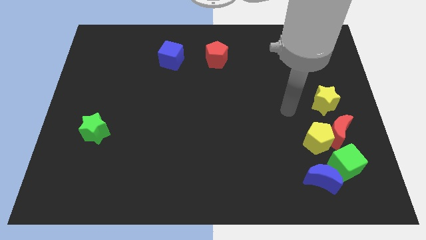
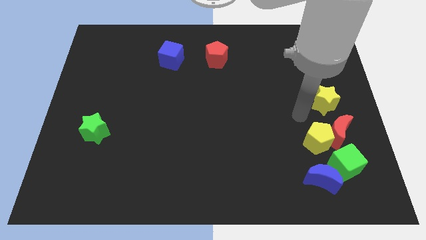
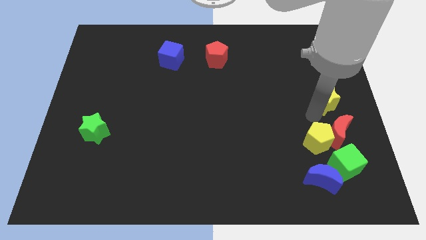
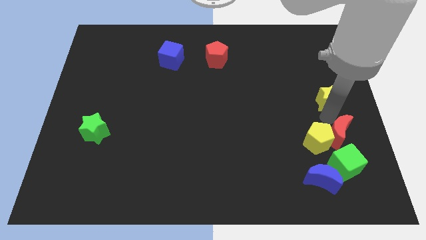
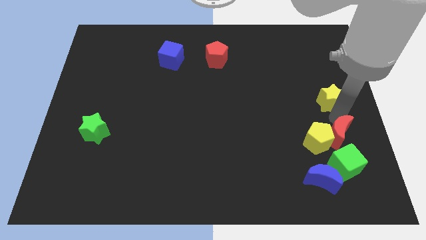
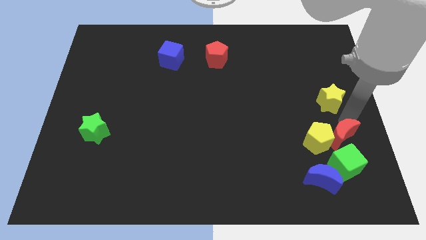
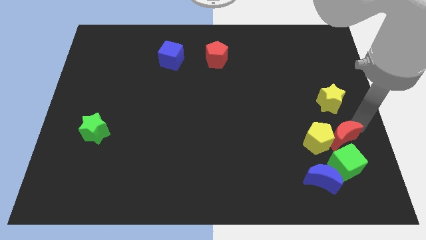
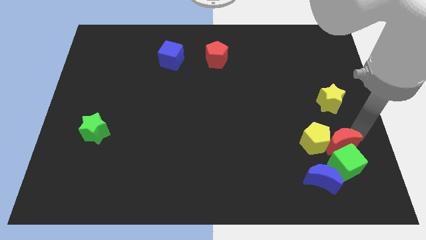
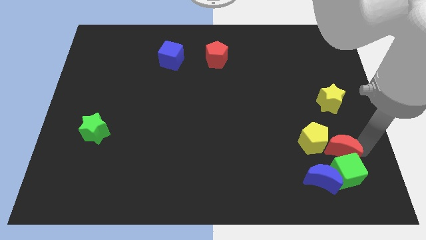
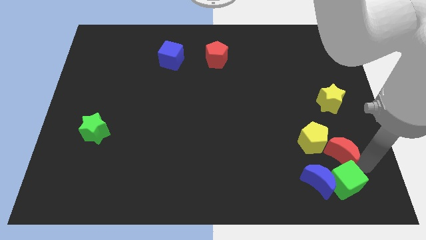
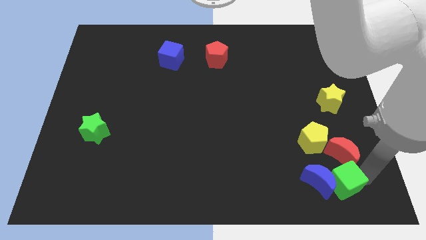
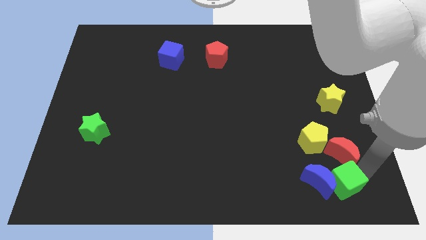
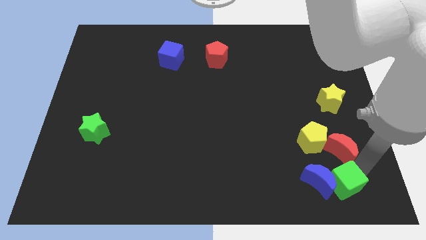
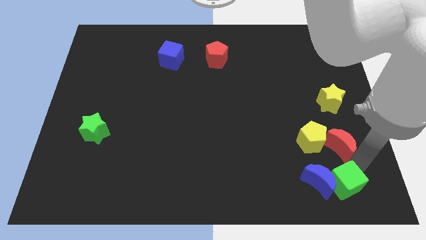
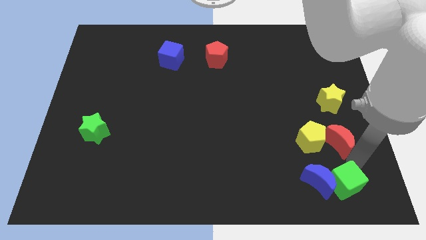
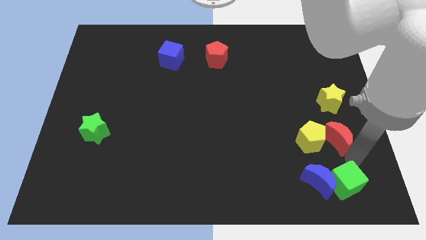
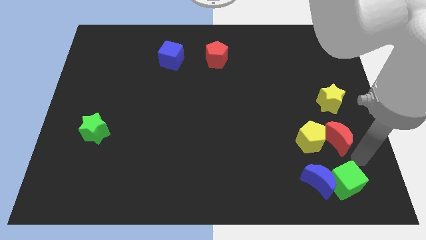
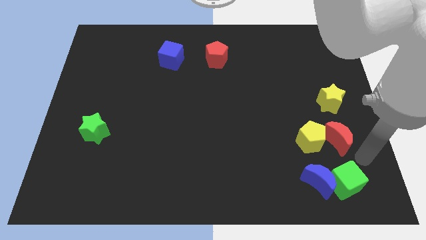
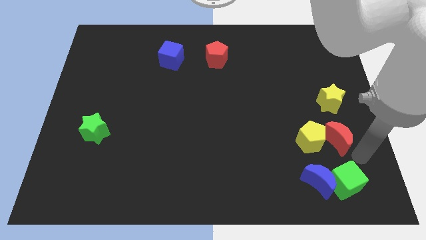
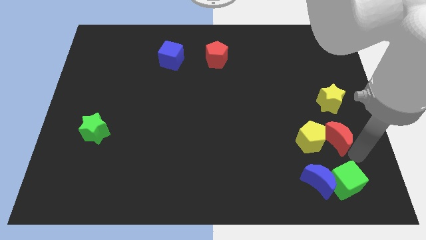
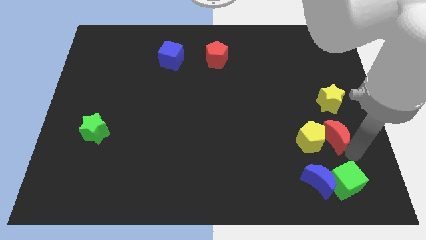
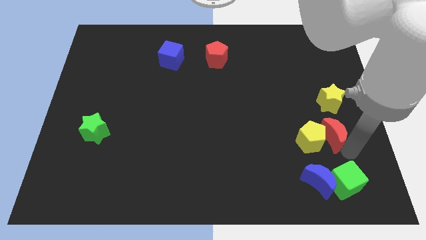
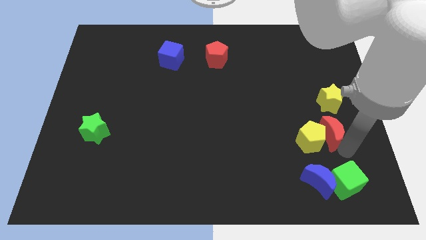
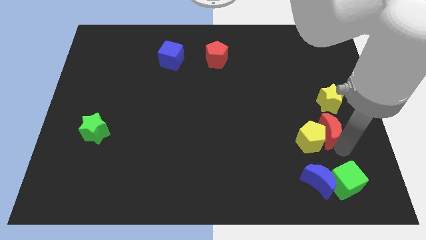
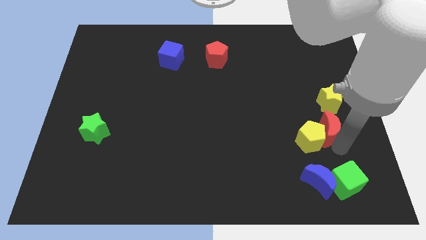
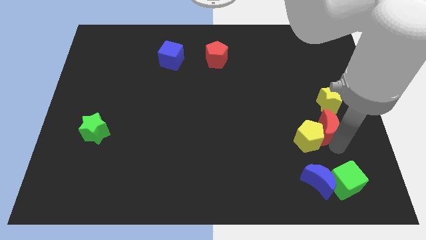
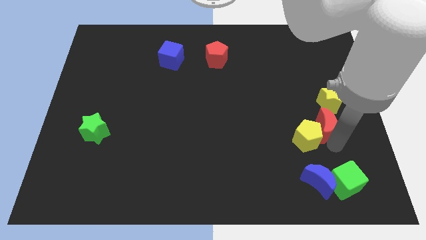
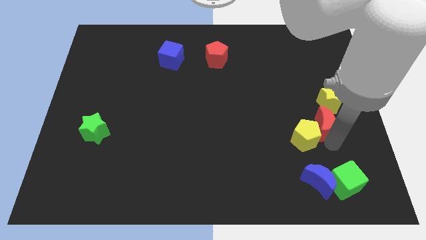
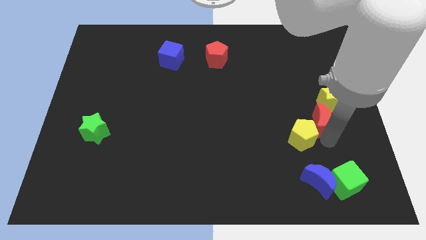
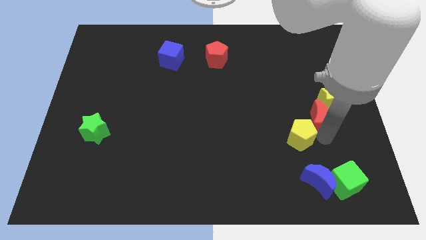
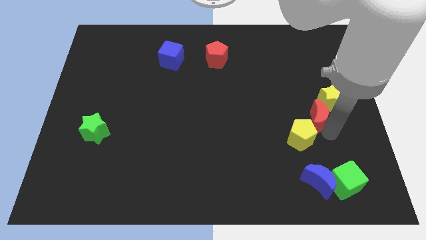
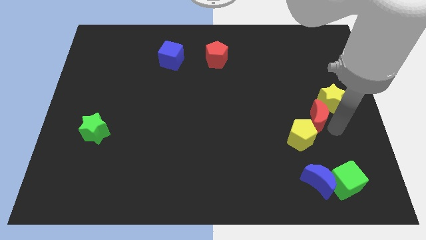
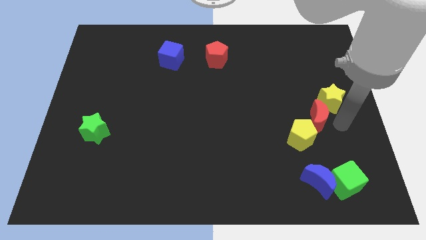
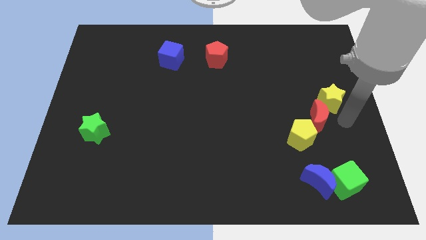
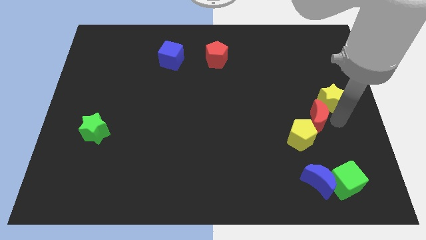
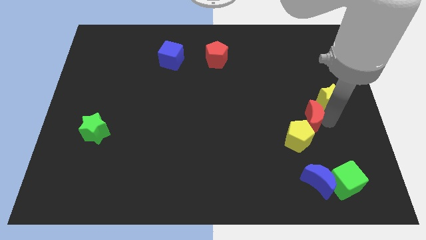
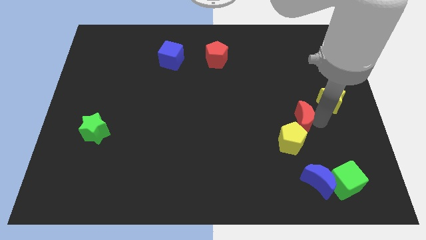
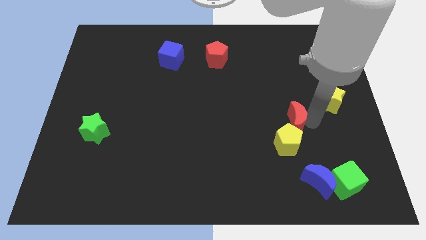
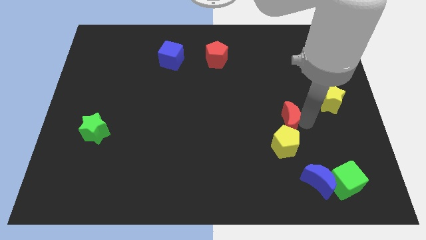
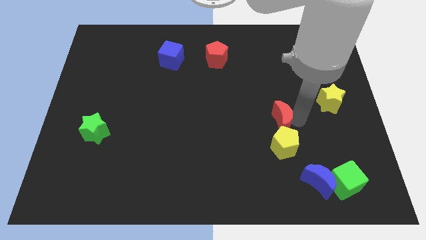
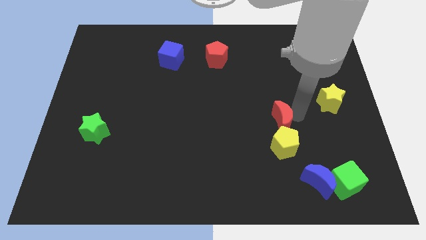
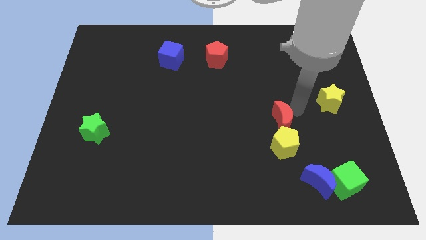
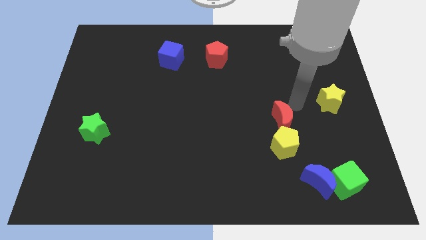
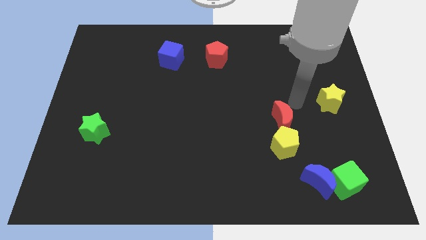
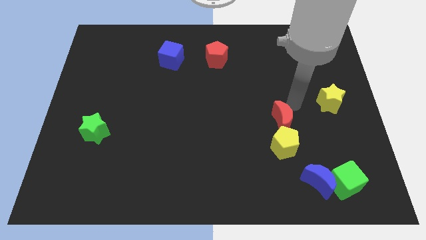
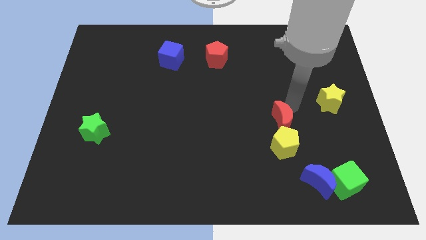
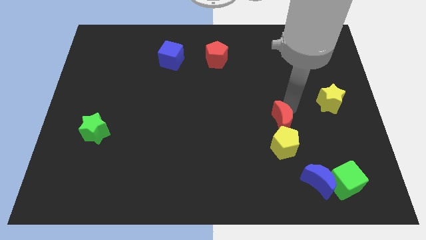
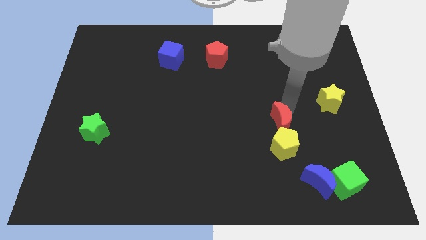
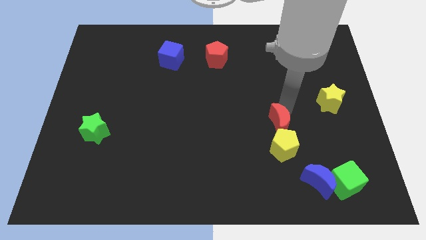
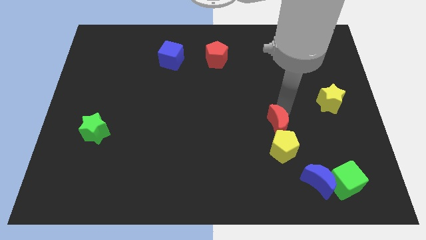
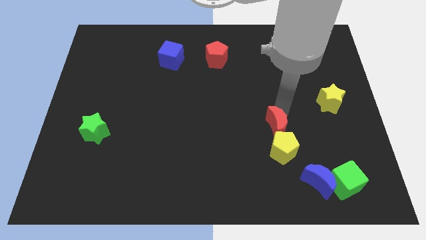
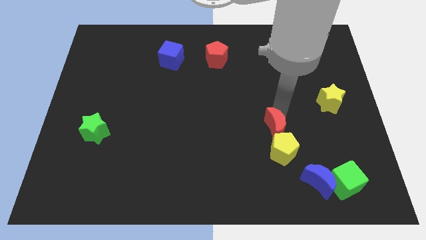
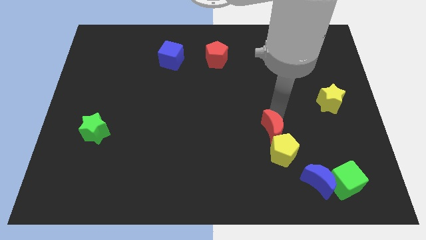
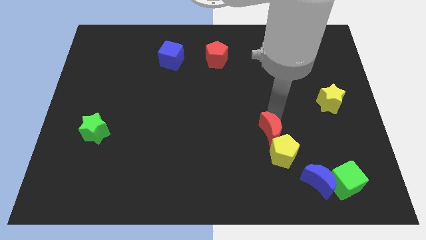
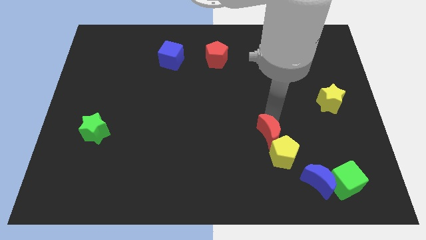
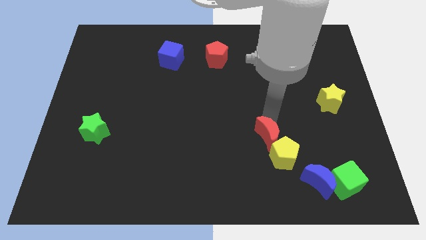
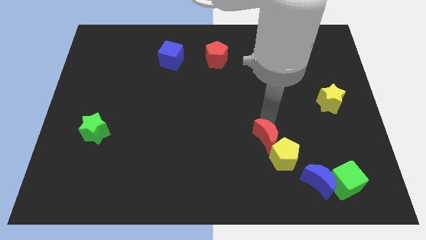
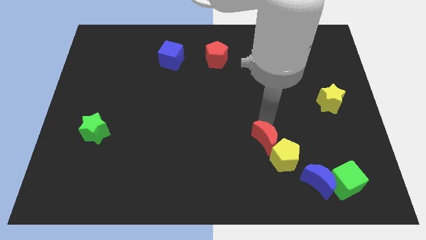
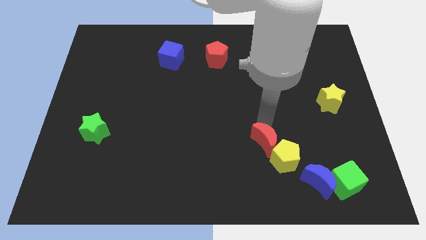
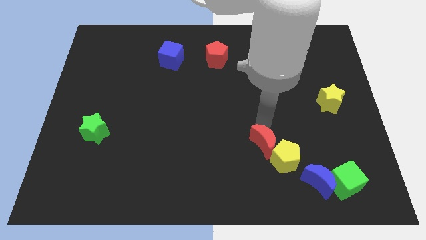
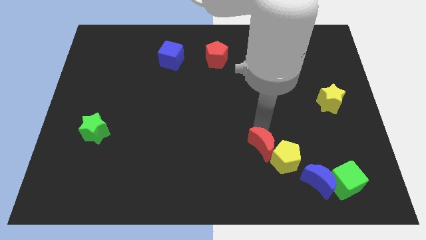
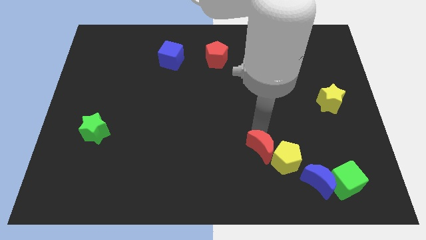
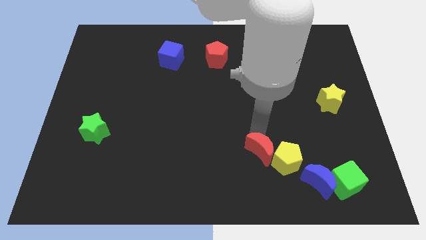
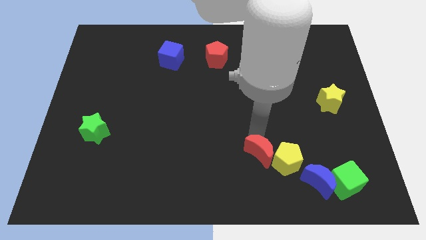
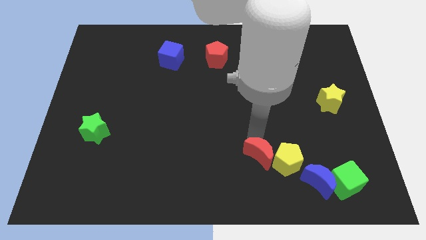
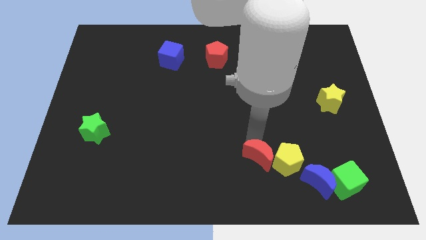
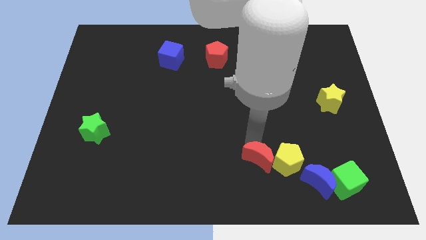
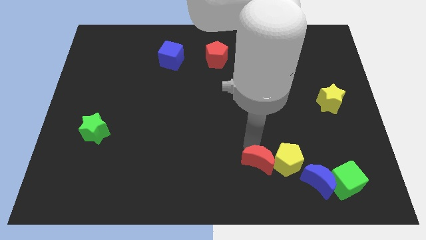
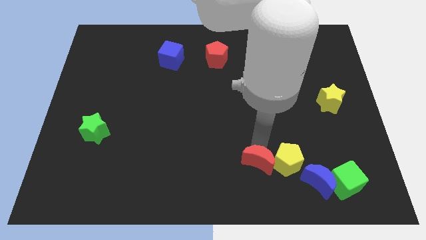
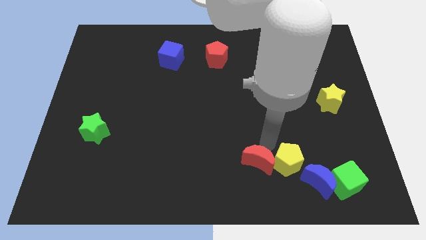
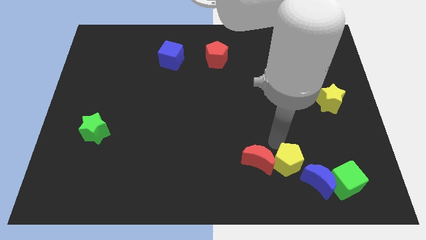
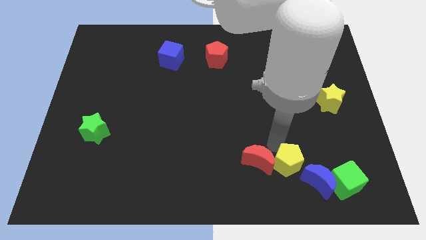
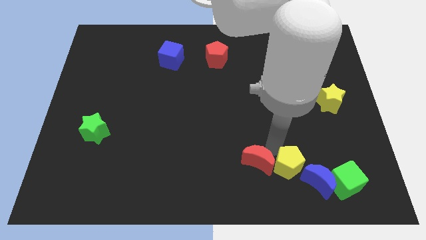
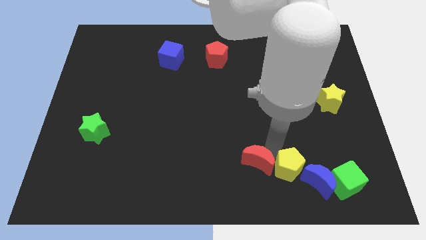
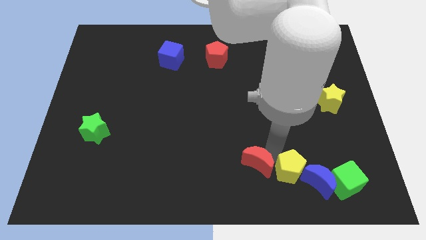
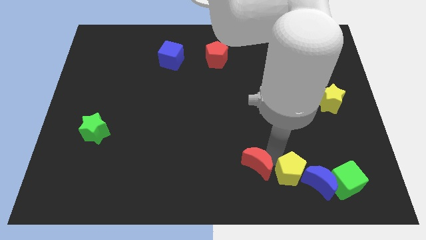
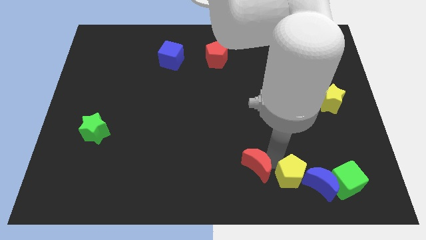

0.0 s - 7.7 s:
put the red moon to the bottom
